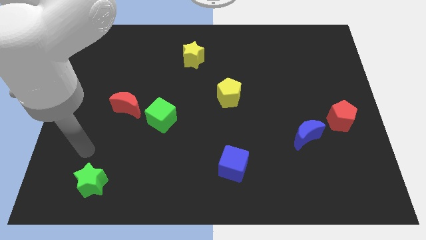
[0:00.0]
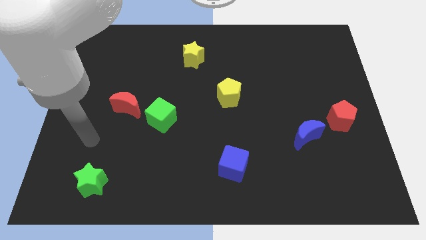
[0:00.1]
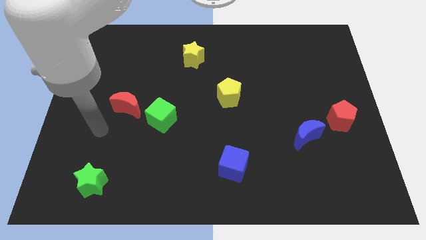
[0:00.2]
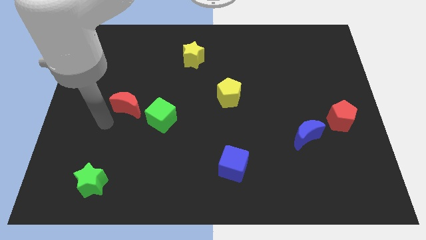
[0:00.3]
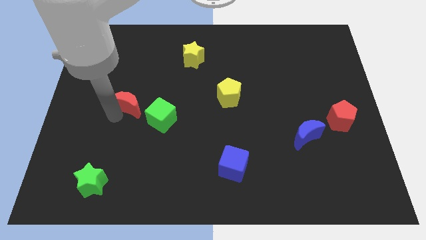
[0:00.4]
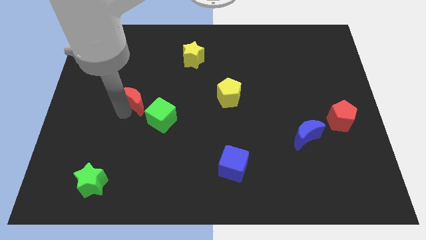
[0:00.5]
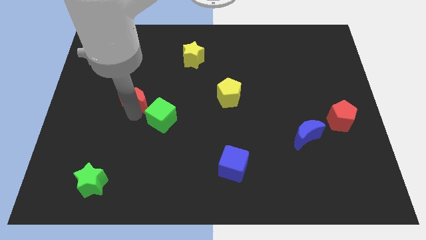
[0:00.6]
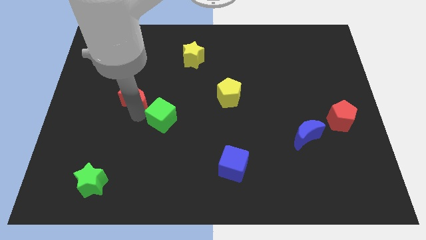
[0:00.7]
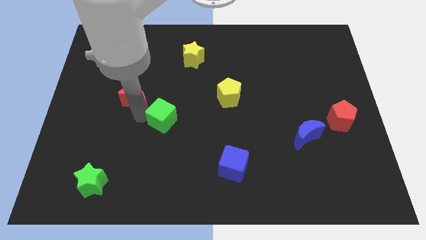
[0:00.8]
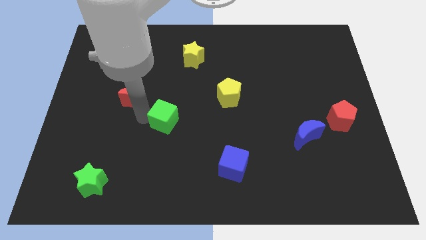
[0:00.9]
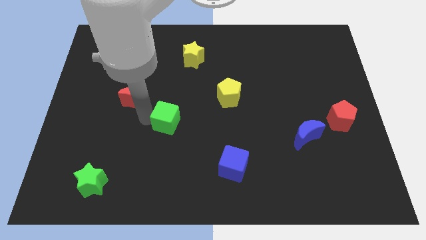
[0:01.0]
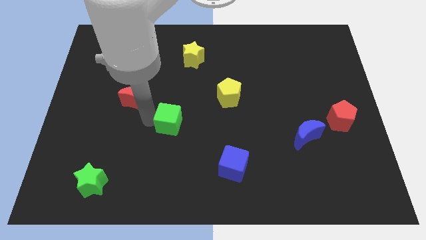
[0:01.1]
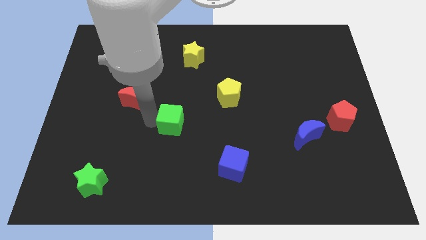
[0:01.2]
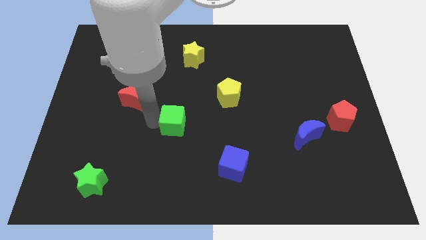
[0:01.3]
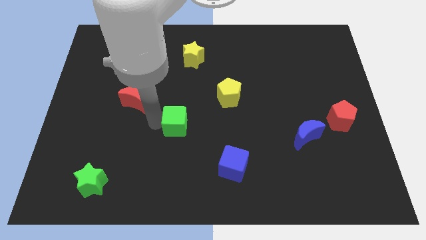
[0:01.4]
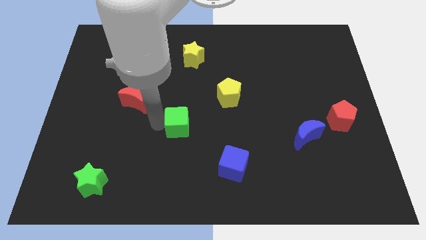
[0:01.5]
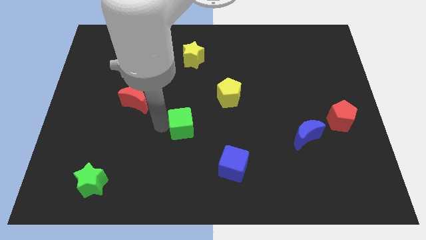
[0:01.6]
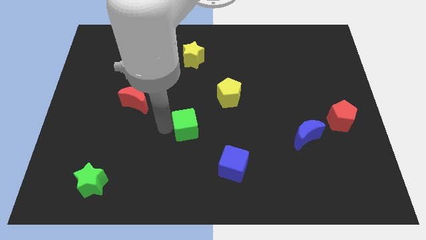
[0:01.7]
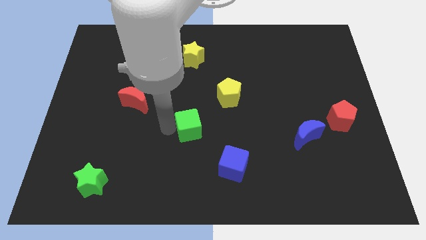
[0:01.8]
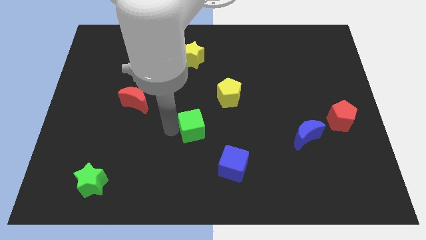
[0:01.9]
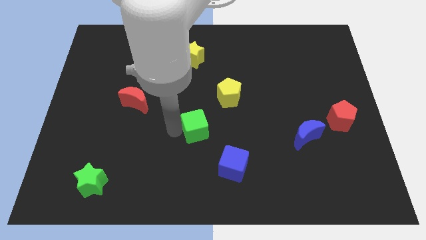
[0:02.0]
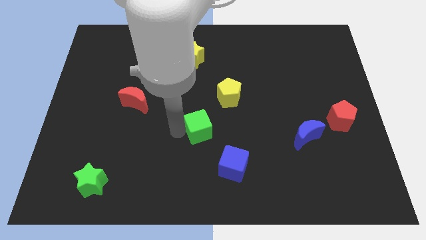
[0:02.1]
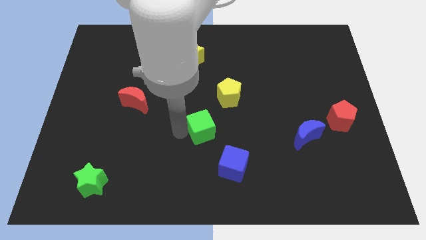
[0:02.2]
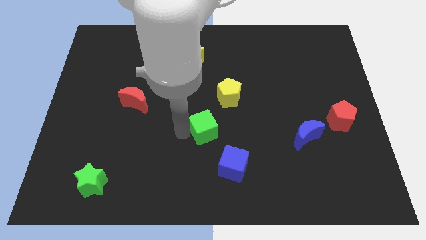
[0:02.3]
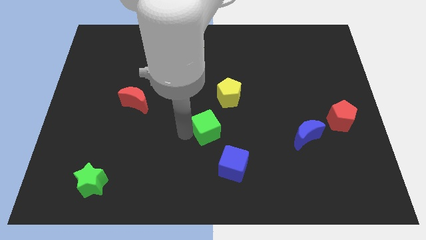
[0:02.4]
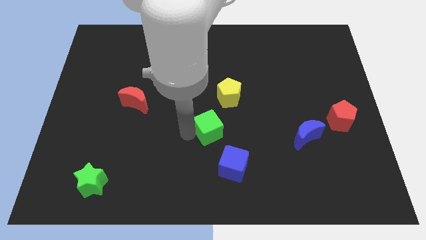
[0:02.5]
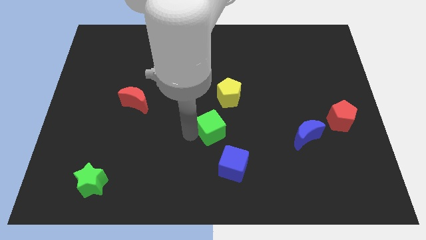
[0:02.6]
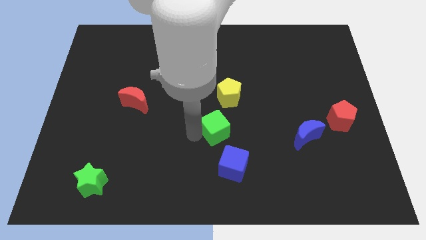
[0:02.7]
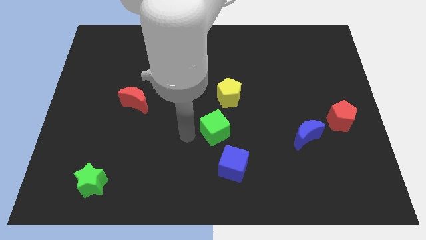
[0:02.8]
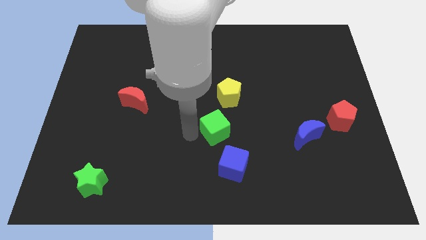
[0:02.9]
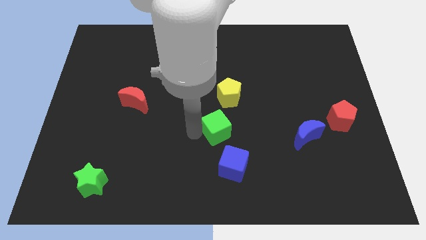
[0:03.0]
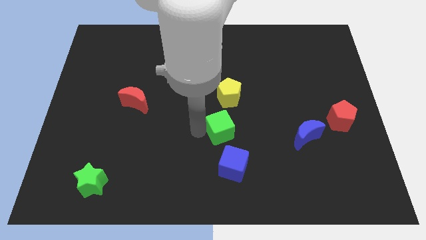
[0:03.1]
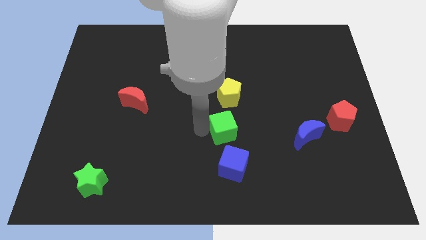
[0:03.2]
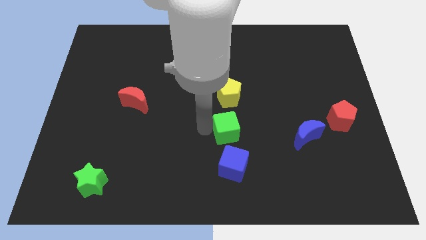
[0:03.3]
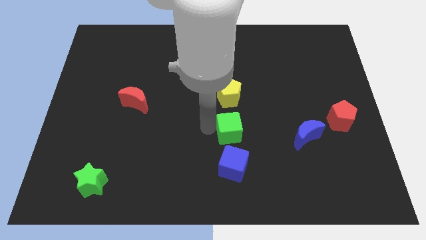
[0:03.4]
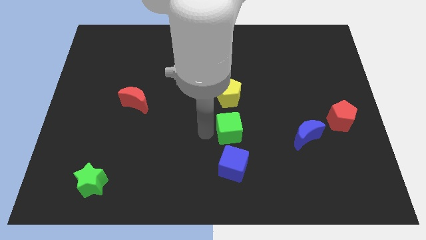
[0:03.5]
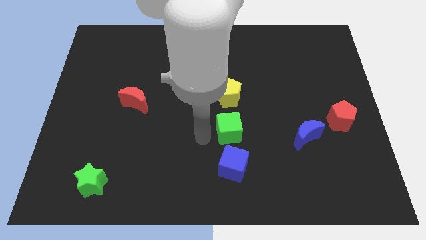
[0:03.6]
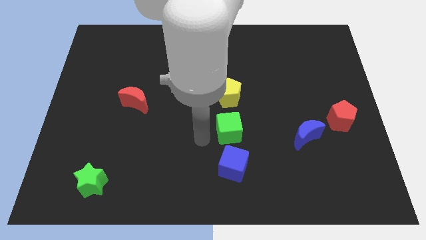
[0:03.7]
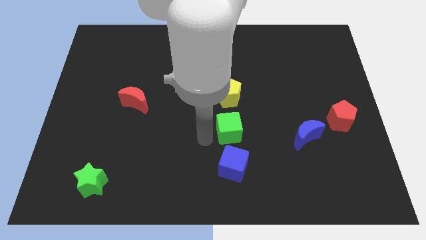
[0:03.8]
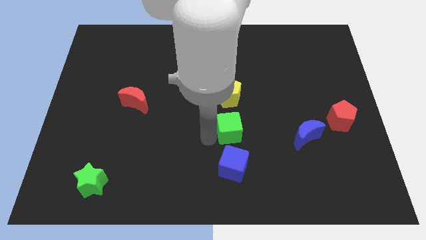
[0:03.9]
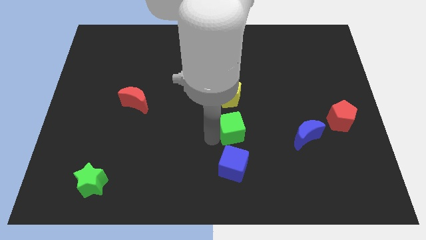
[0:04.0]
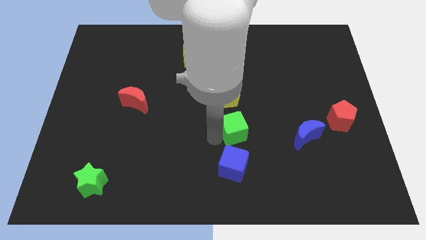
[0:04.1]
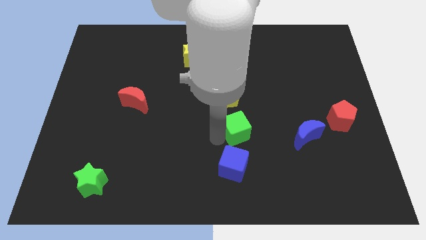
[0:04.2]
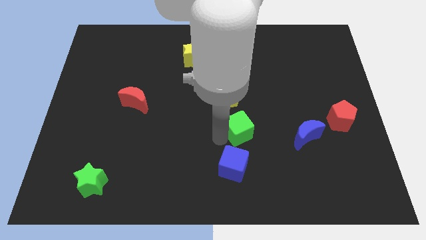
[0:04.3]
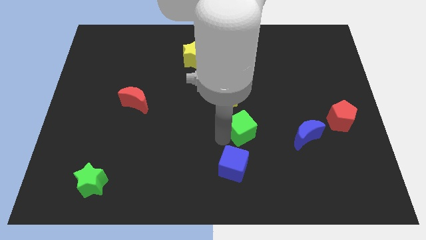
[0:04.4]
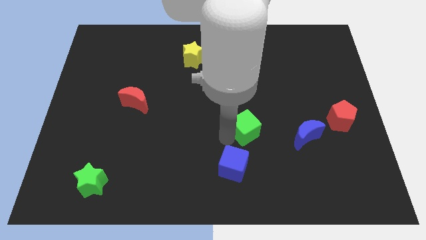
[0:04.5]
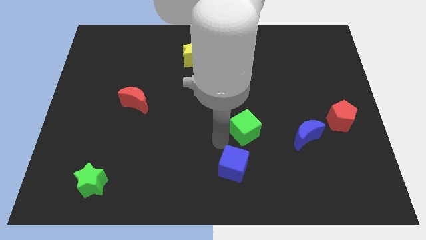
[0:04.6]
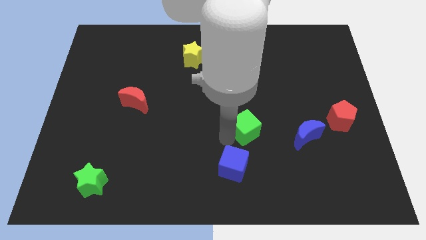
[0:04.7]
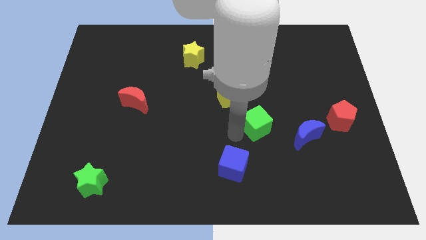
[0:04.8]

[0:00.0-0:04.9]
move the green cube right

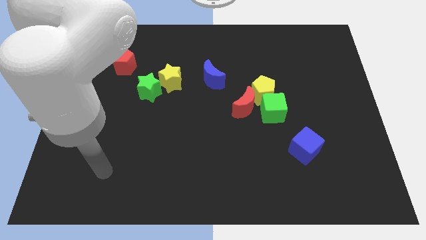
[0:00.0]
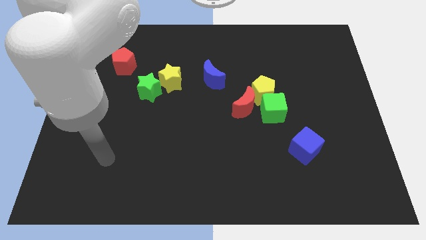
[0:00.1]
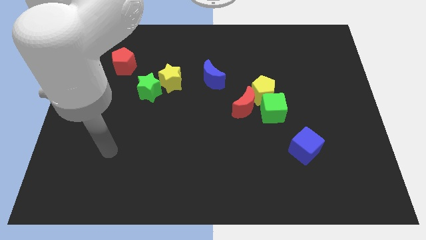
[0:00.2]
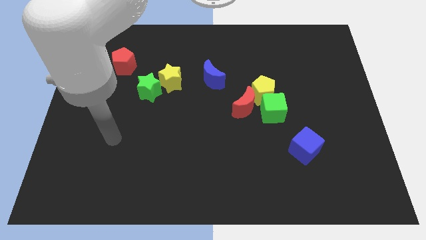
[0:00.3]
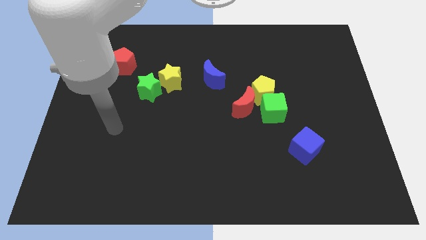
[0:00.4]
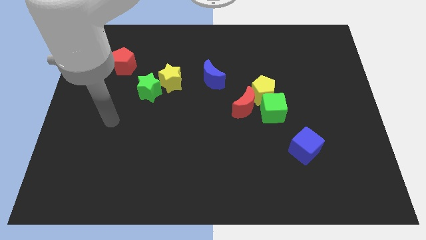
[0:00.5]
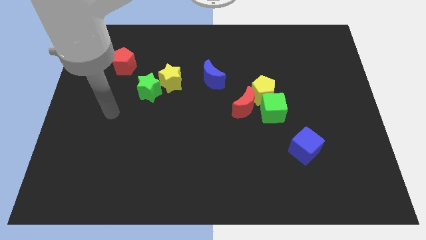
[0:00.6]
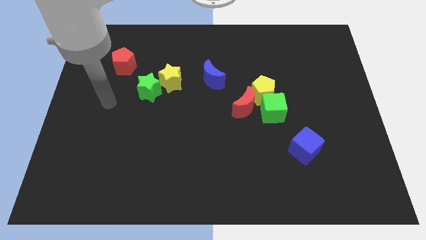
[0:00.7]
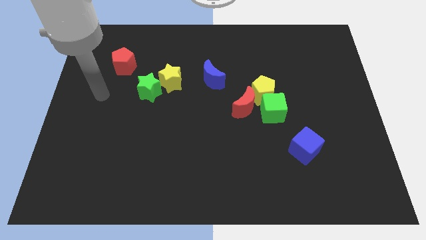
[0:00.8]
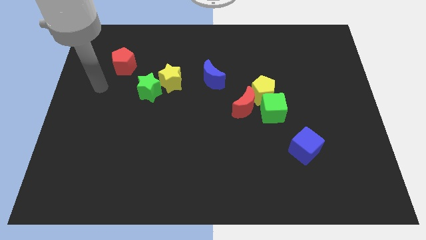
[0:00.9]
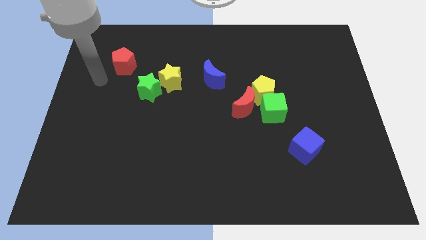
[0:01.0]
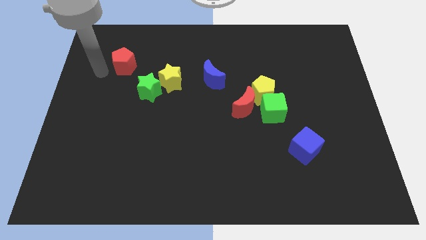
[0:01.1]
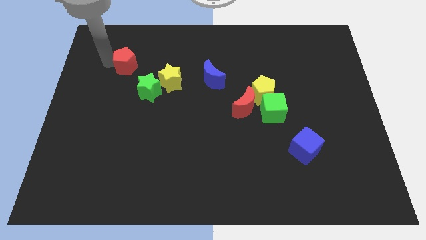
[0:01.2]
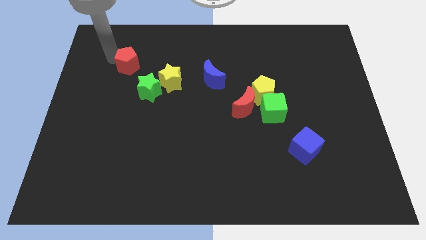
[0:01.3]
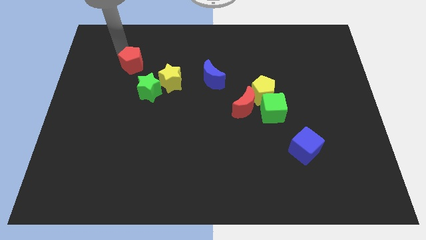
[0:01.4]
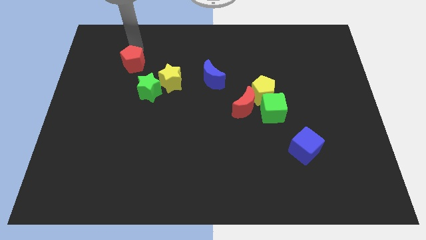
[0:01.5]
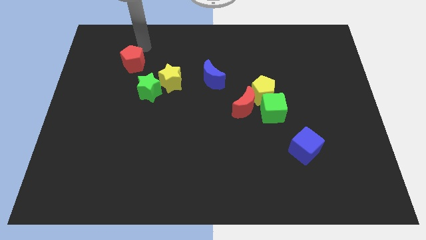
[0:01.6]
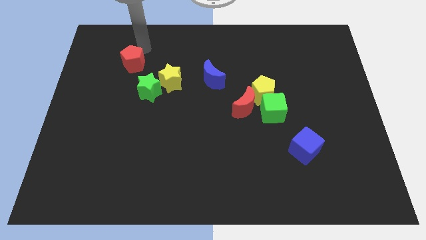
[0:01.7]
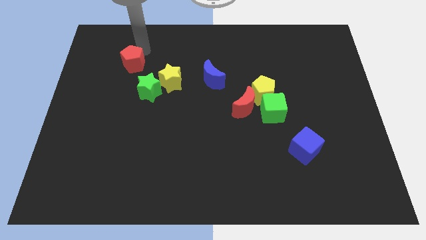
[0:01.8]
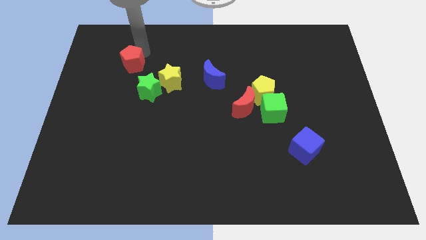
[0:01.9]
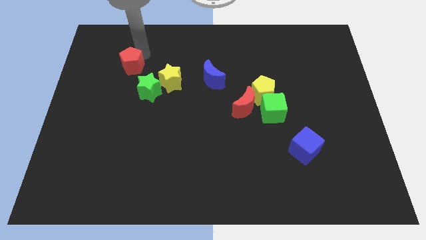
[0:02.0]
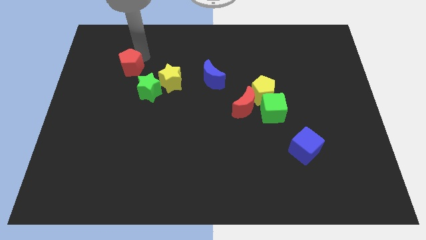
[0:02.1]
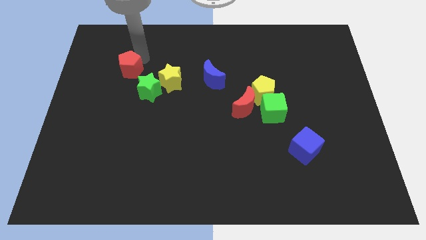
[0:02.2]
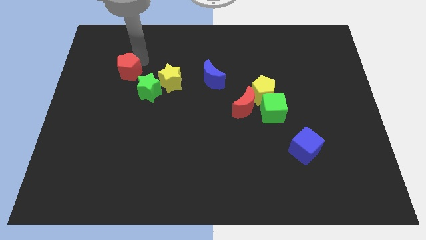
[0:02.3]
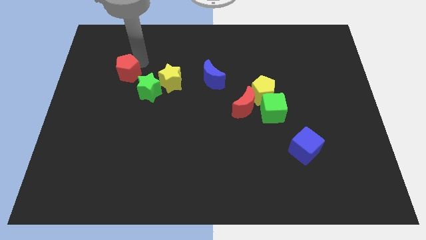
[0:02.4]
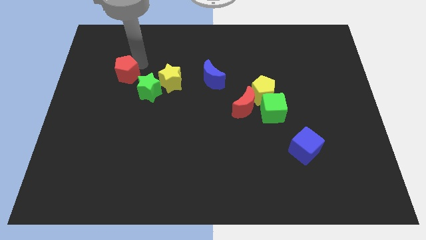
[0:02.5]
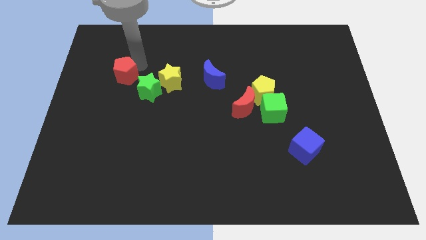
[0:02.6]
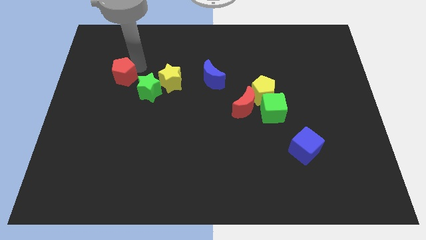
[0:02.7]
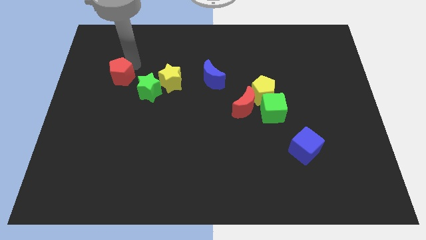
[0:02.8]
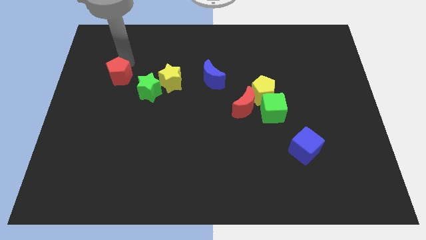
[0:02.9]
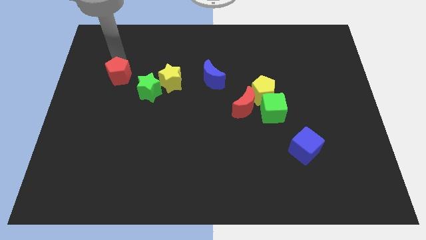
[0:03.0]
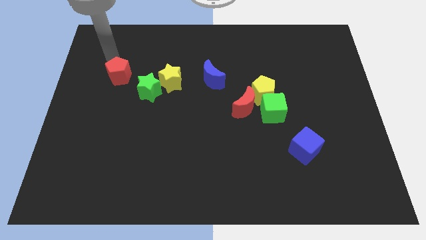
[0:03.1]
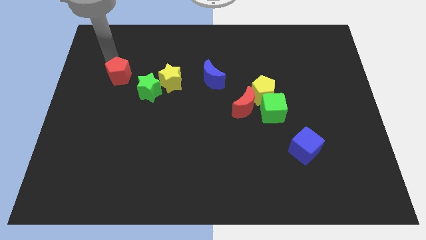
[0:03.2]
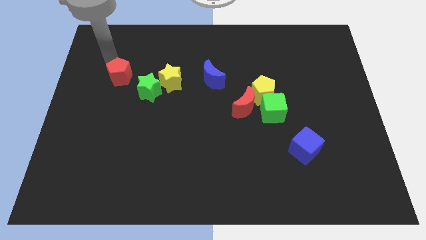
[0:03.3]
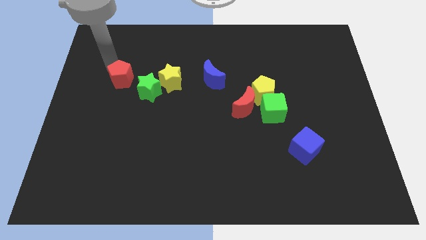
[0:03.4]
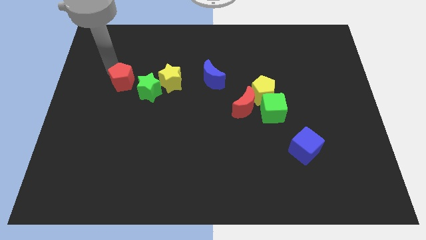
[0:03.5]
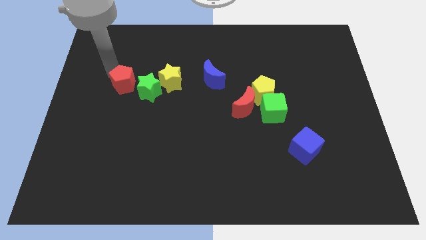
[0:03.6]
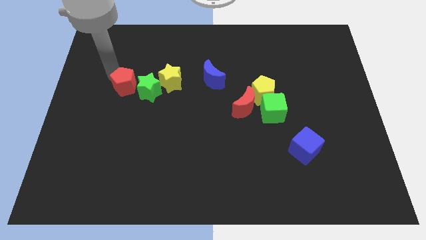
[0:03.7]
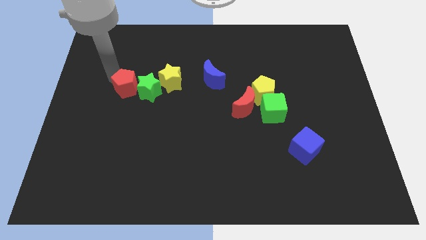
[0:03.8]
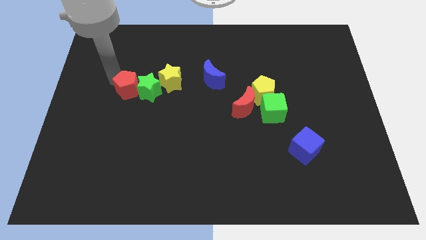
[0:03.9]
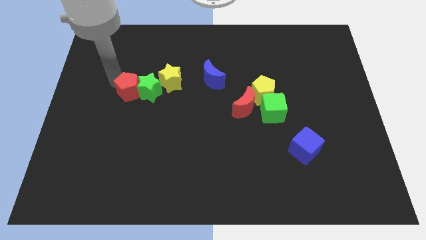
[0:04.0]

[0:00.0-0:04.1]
slightly move the red pentagon downwards and then right
